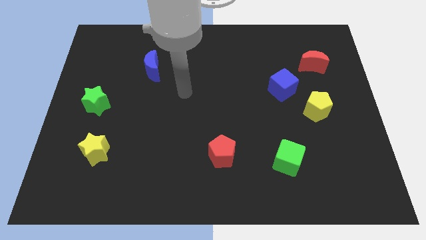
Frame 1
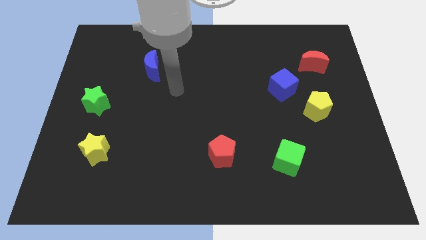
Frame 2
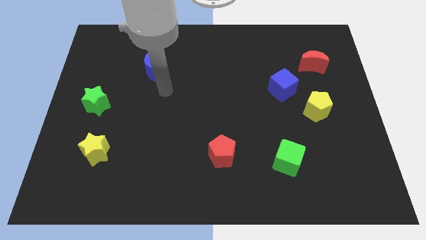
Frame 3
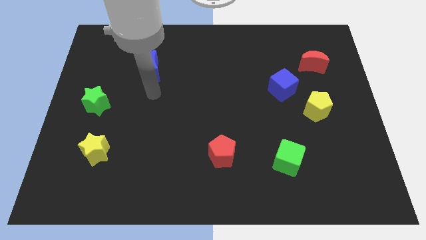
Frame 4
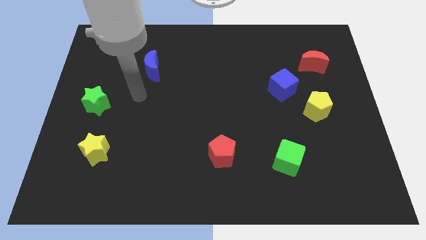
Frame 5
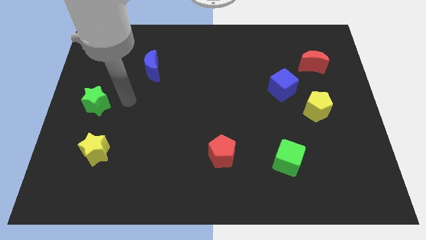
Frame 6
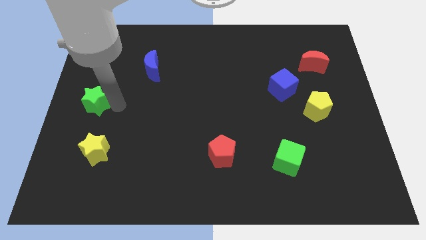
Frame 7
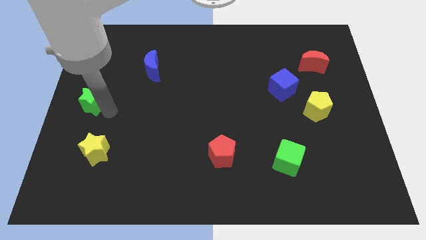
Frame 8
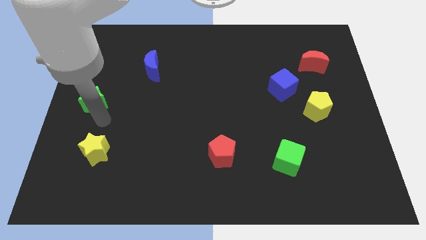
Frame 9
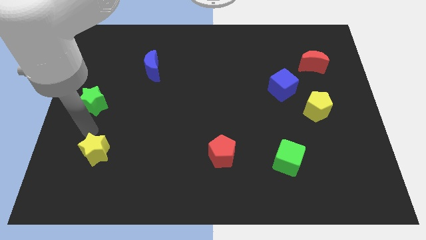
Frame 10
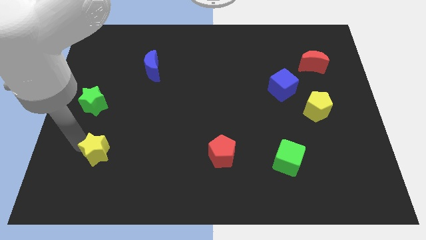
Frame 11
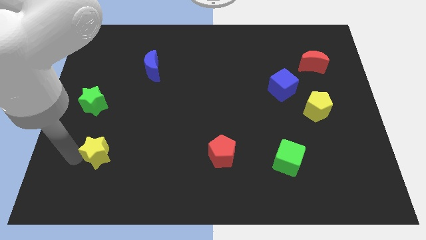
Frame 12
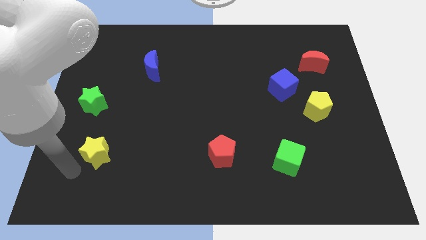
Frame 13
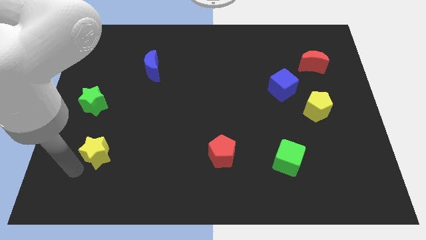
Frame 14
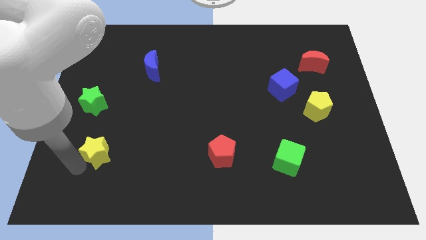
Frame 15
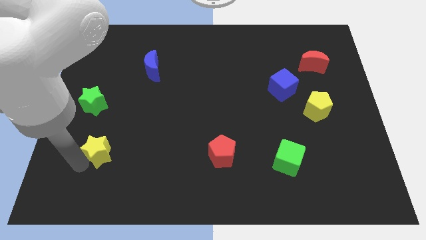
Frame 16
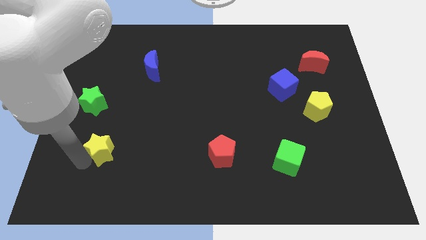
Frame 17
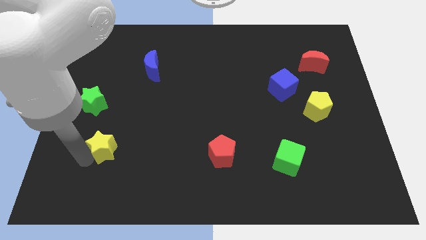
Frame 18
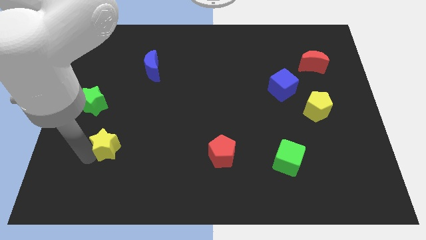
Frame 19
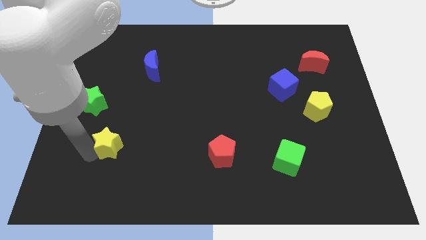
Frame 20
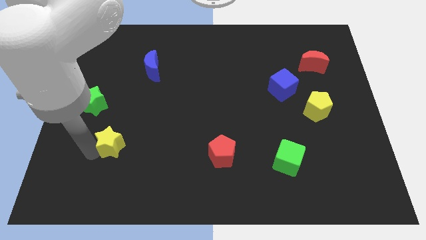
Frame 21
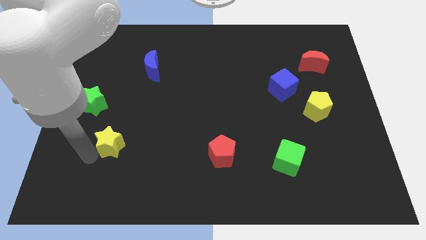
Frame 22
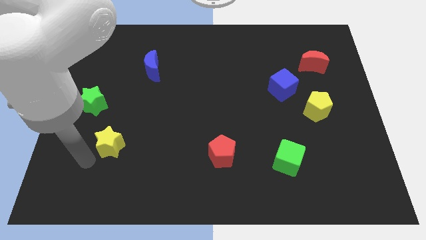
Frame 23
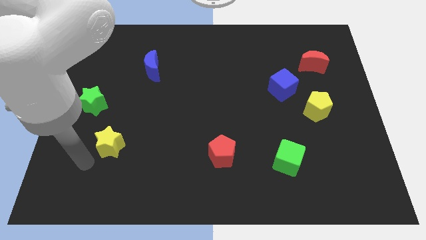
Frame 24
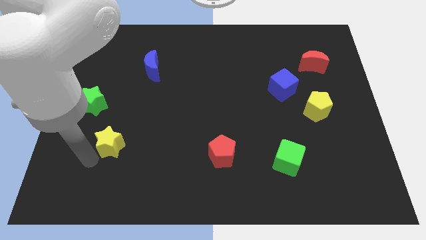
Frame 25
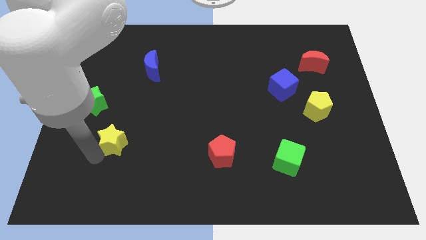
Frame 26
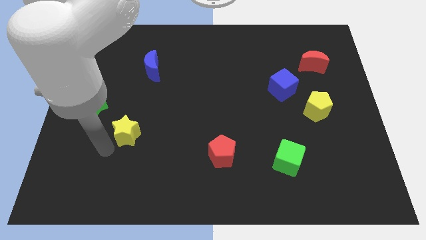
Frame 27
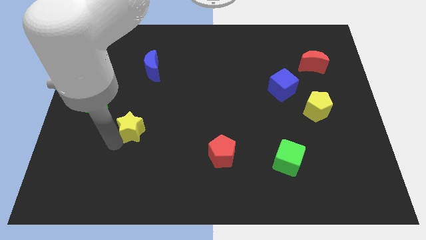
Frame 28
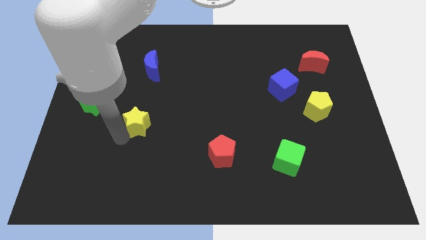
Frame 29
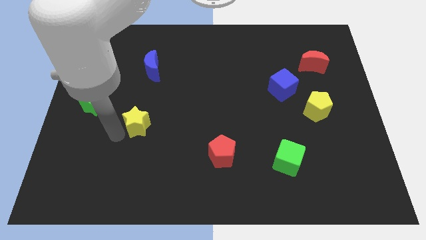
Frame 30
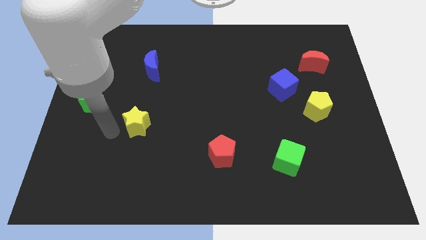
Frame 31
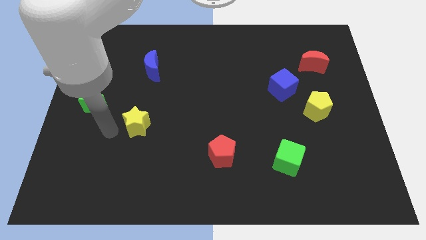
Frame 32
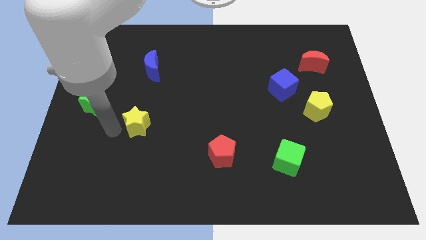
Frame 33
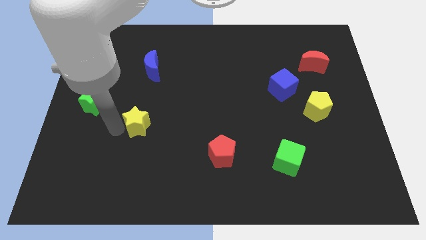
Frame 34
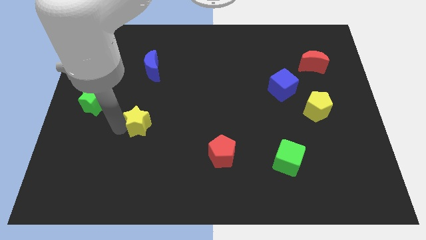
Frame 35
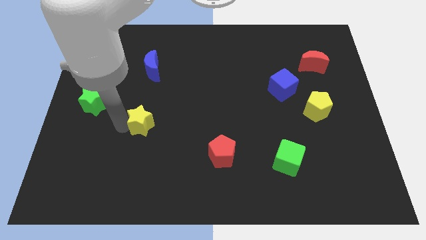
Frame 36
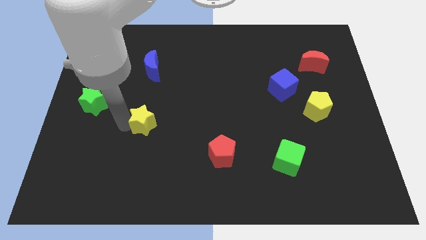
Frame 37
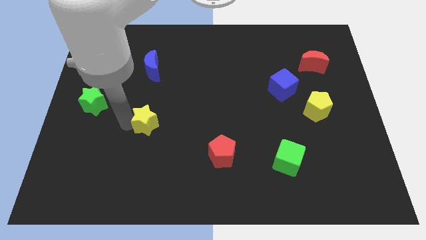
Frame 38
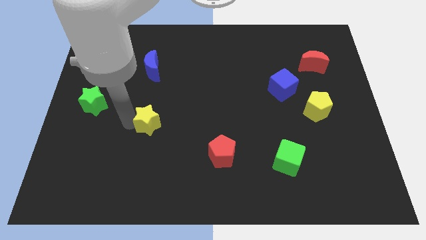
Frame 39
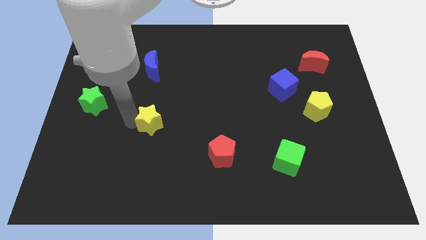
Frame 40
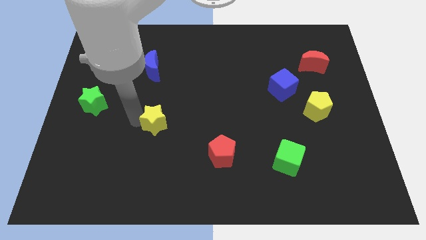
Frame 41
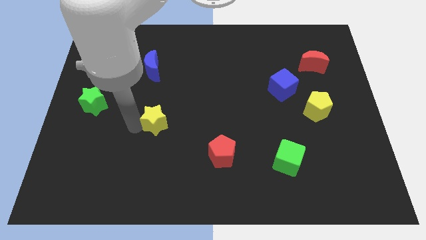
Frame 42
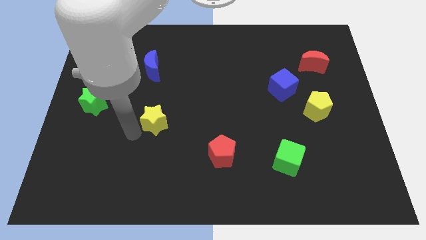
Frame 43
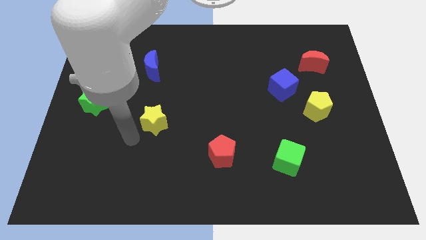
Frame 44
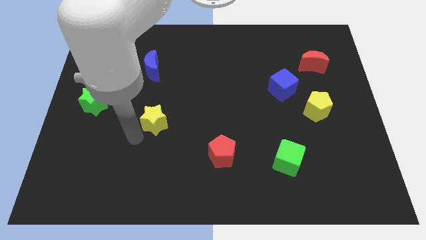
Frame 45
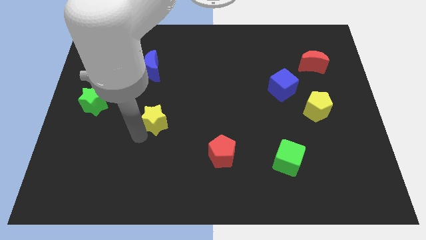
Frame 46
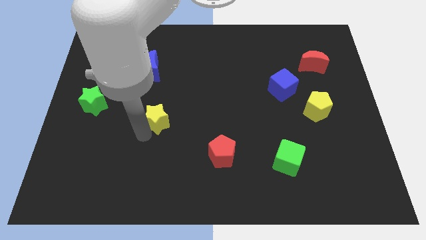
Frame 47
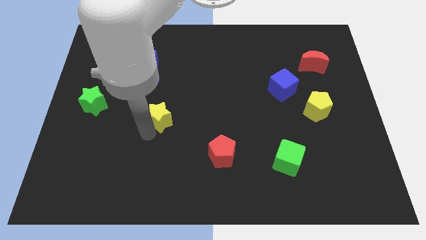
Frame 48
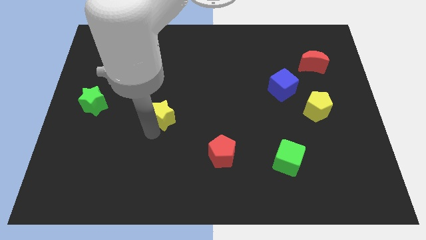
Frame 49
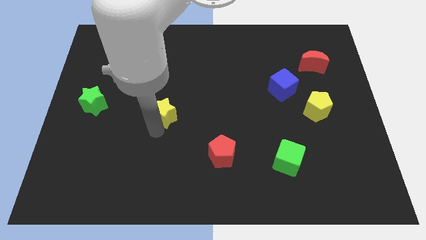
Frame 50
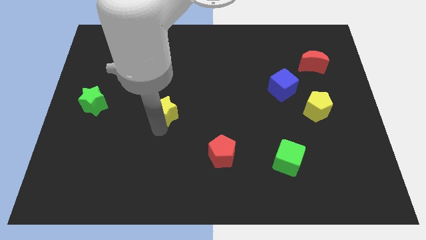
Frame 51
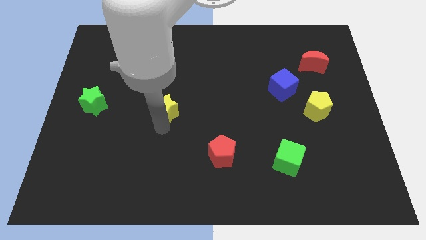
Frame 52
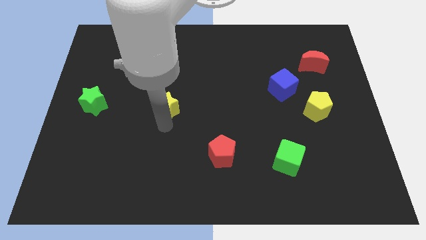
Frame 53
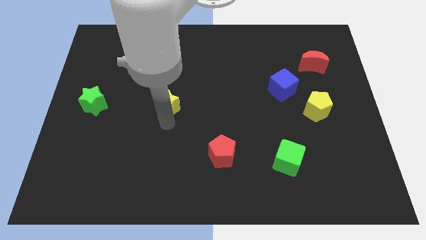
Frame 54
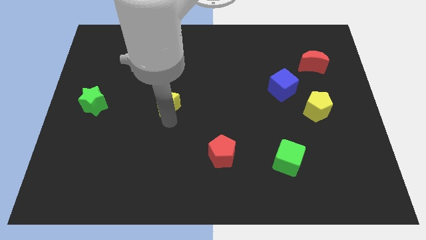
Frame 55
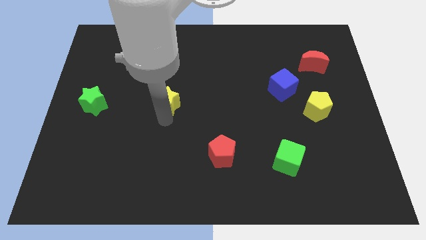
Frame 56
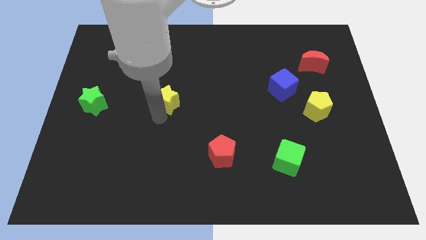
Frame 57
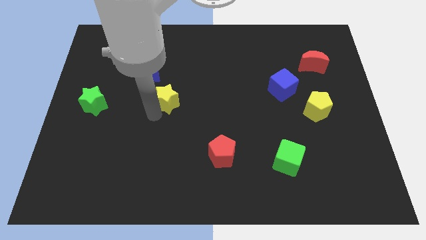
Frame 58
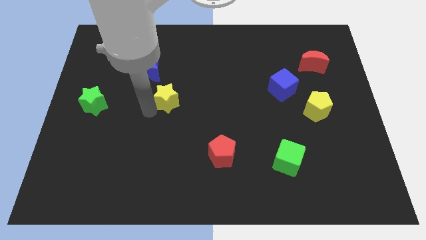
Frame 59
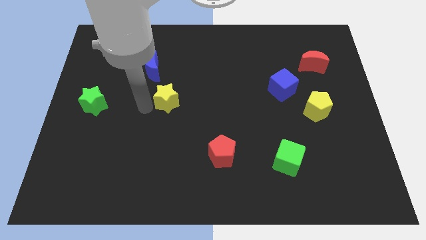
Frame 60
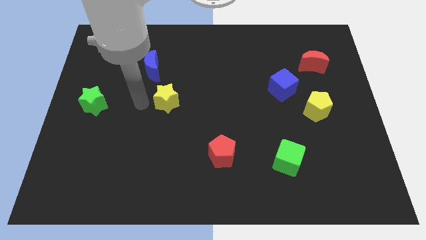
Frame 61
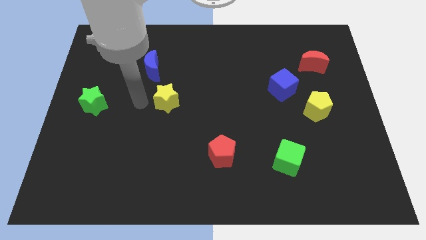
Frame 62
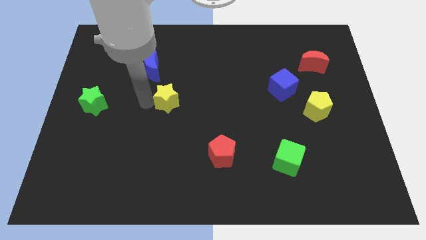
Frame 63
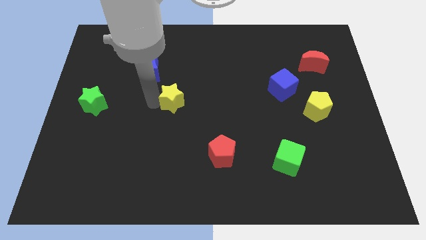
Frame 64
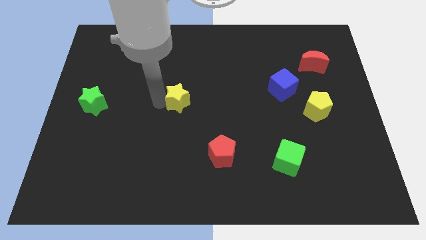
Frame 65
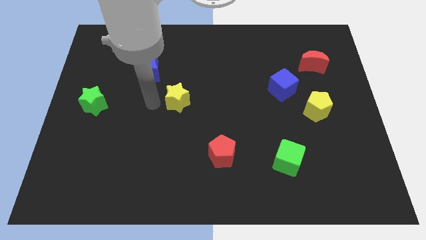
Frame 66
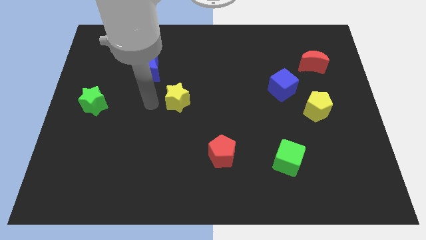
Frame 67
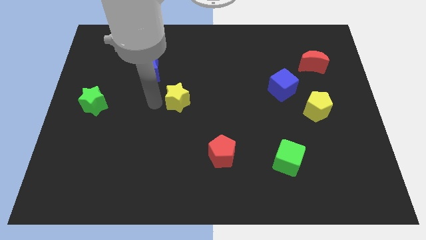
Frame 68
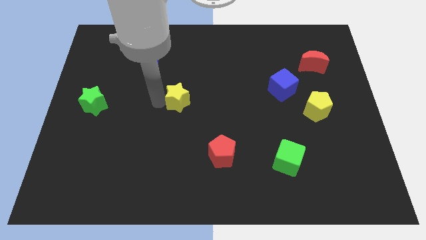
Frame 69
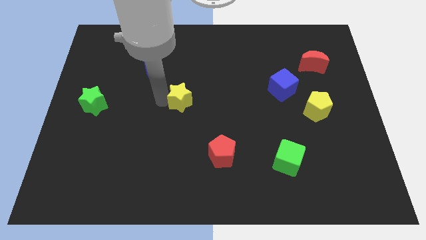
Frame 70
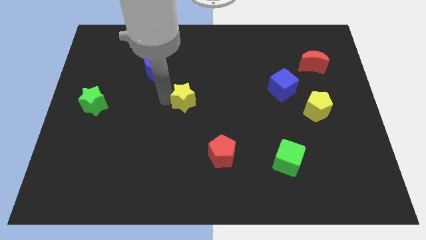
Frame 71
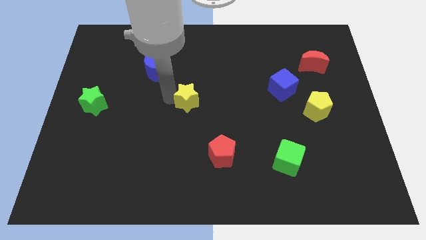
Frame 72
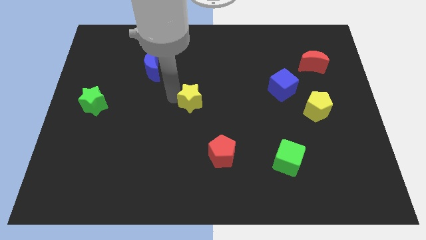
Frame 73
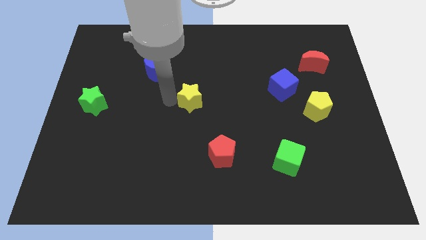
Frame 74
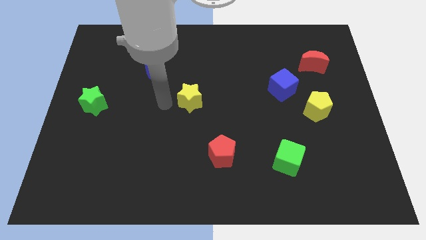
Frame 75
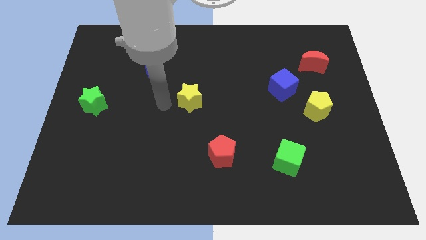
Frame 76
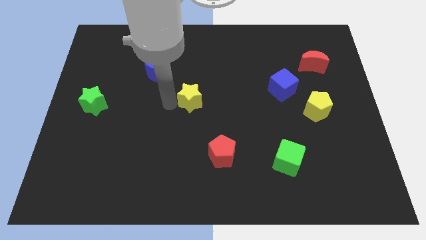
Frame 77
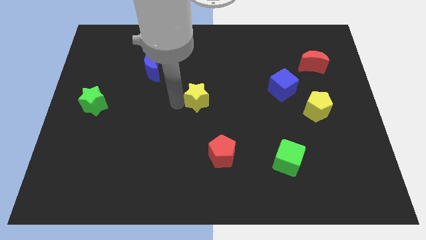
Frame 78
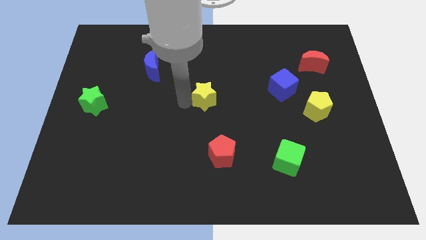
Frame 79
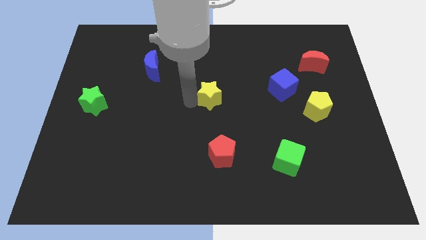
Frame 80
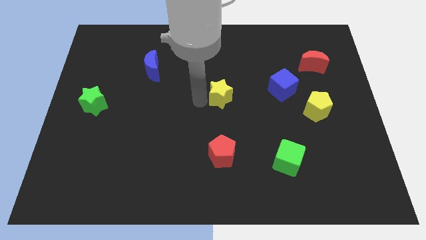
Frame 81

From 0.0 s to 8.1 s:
push the yellow star left of the blue cube
